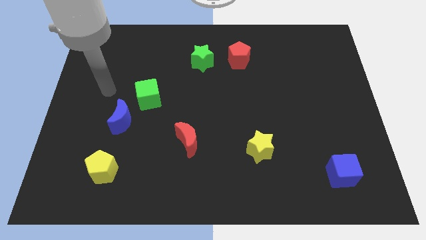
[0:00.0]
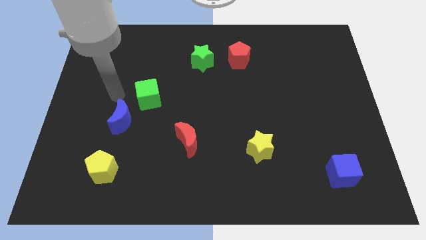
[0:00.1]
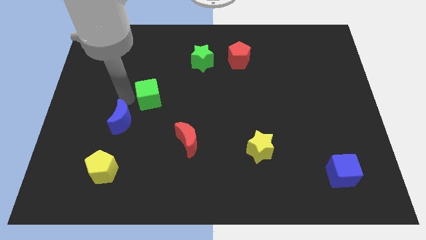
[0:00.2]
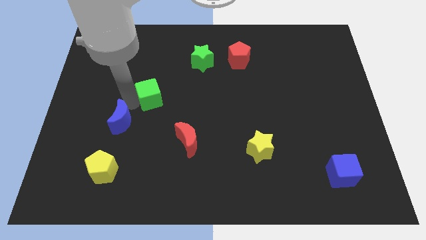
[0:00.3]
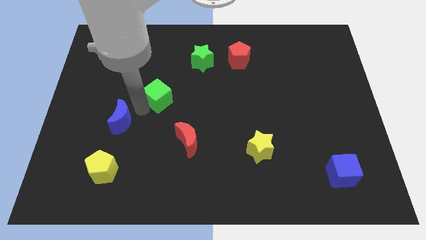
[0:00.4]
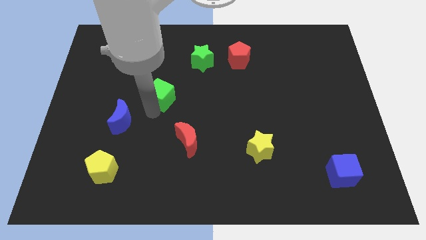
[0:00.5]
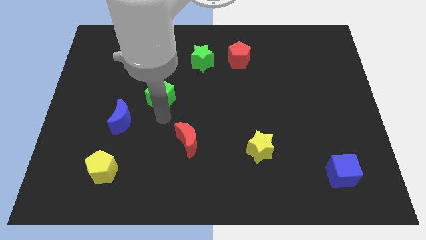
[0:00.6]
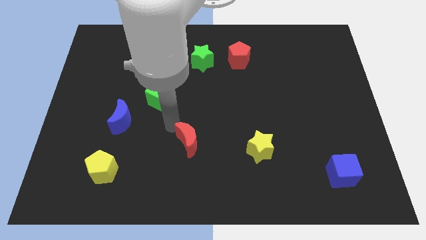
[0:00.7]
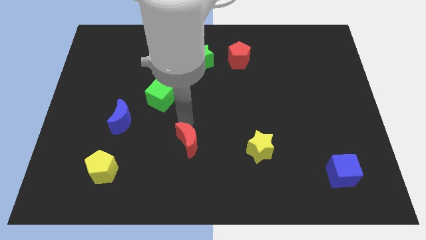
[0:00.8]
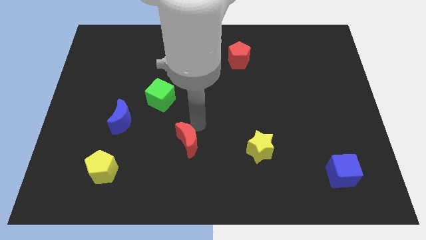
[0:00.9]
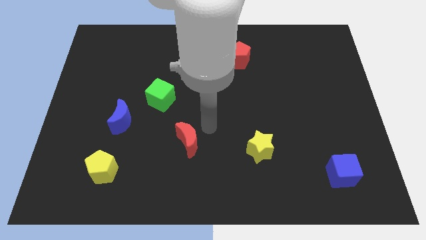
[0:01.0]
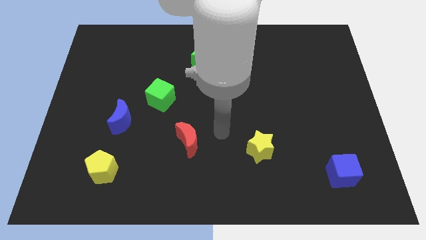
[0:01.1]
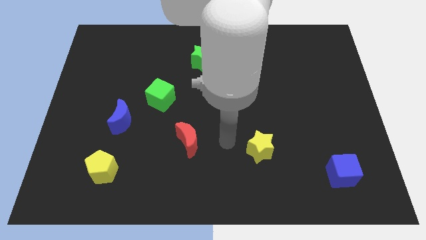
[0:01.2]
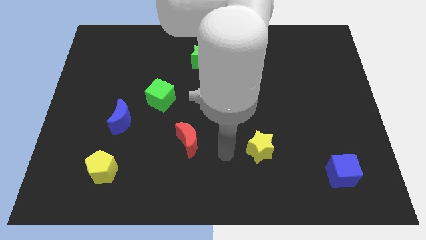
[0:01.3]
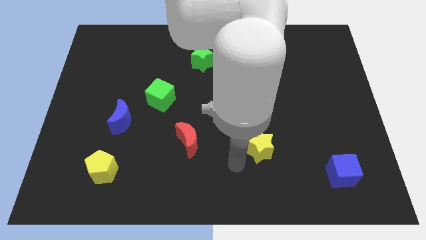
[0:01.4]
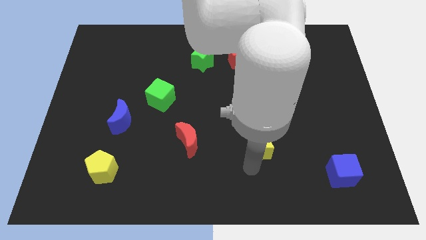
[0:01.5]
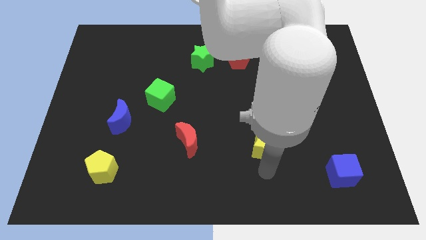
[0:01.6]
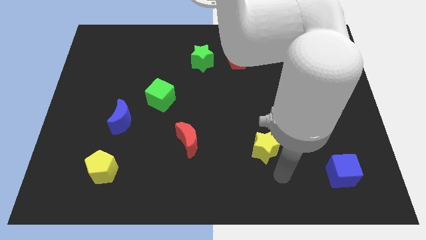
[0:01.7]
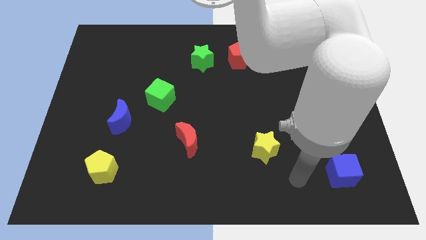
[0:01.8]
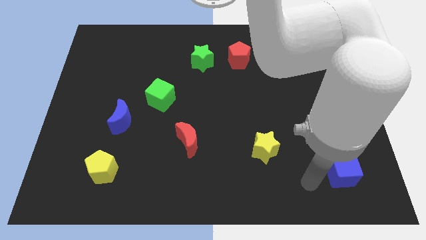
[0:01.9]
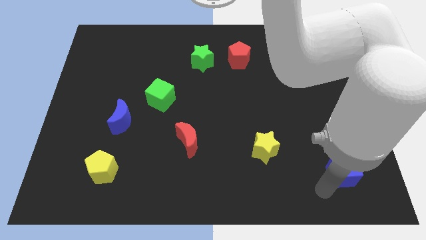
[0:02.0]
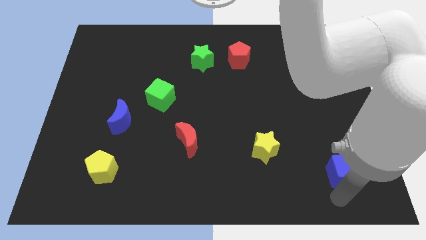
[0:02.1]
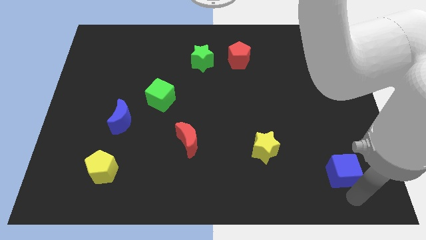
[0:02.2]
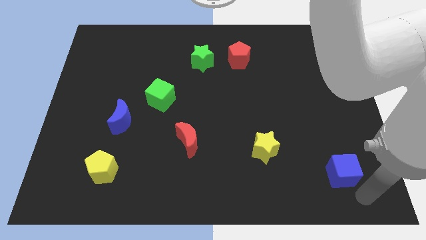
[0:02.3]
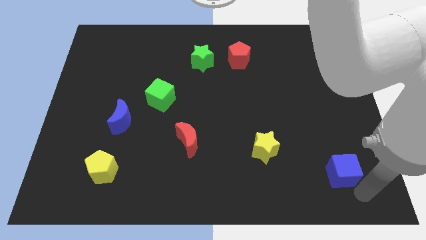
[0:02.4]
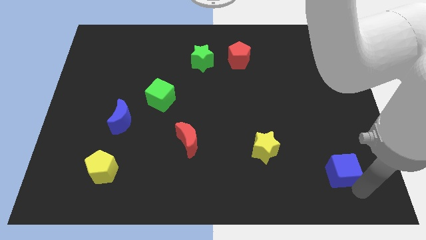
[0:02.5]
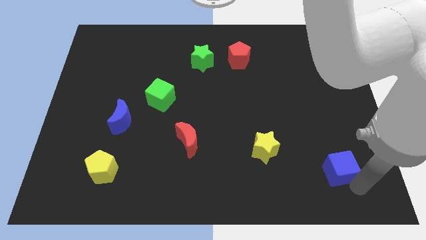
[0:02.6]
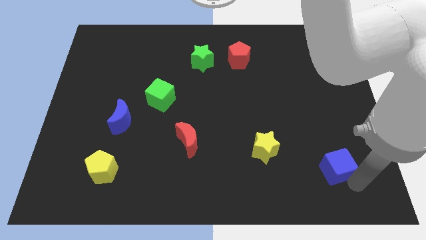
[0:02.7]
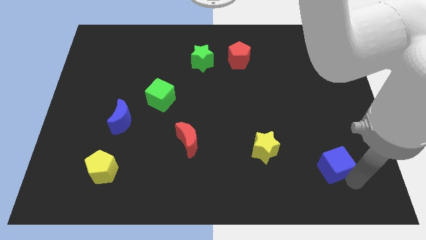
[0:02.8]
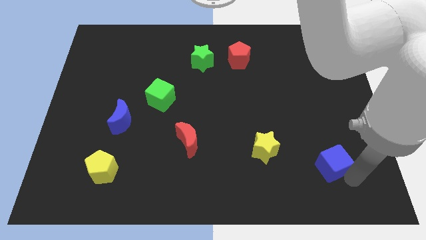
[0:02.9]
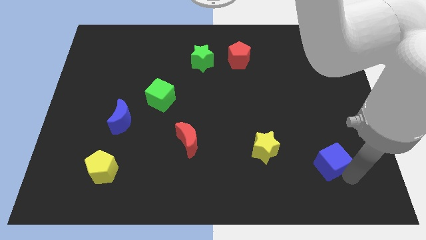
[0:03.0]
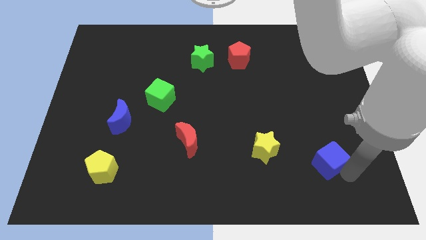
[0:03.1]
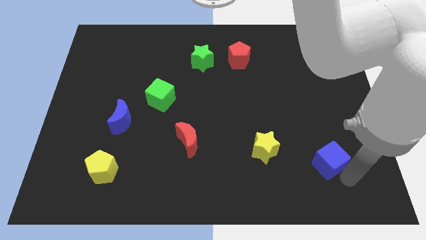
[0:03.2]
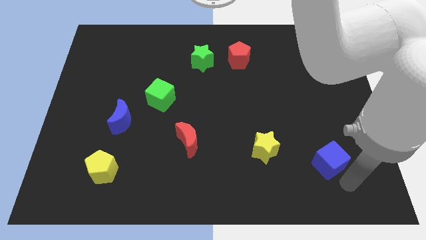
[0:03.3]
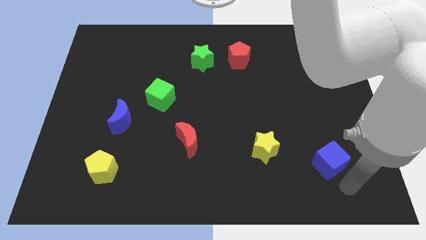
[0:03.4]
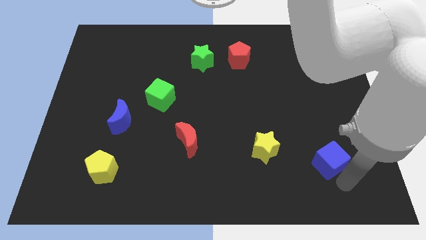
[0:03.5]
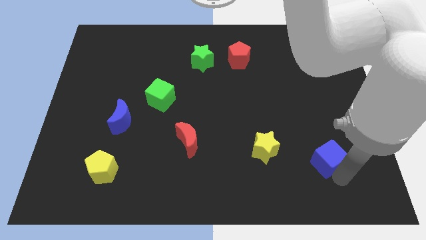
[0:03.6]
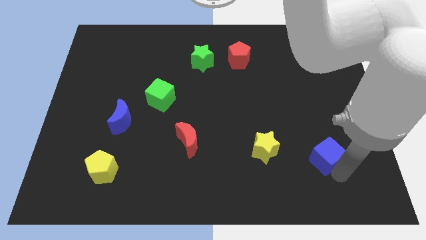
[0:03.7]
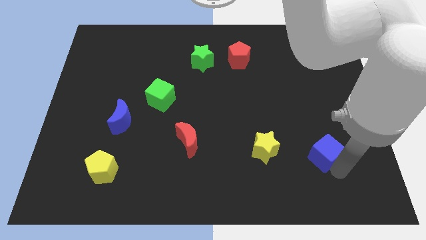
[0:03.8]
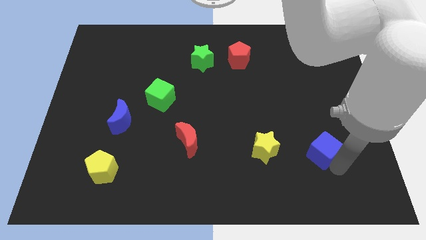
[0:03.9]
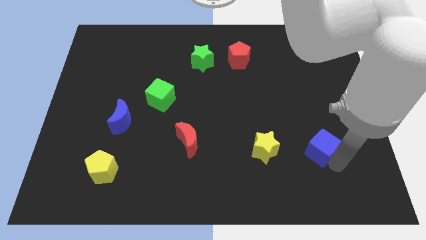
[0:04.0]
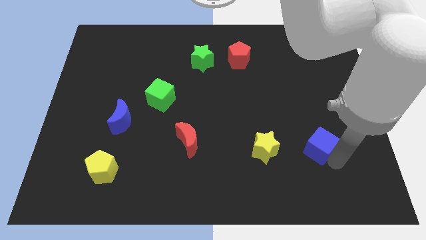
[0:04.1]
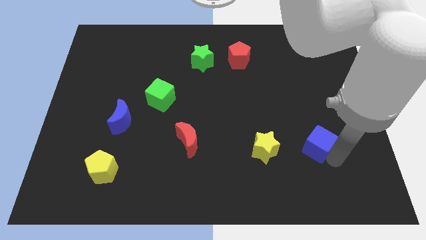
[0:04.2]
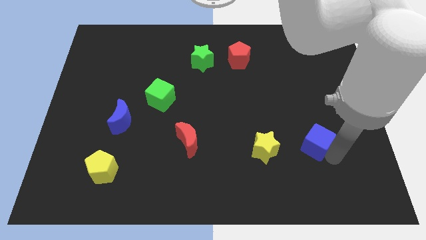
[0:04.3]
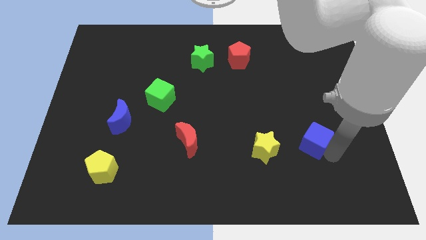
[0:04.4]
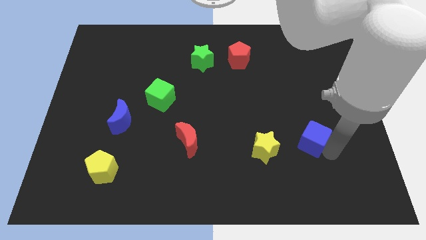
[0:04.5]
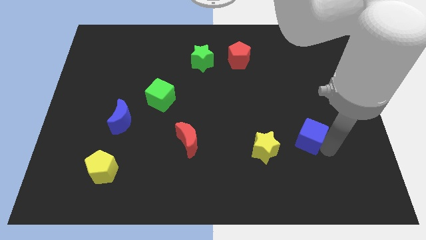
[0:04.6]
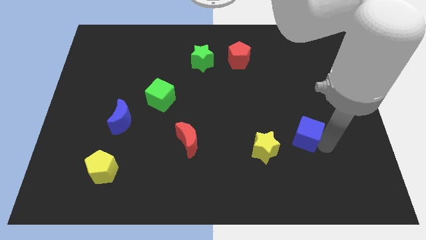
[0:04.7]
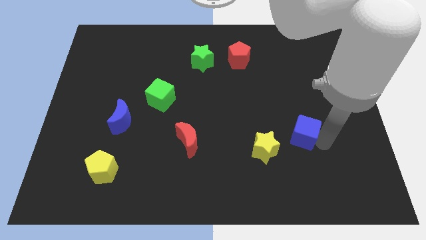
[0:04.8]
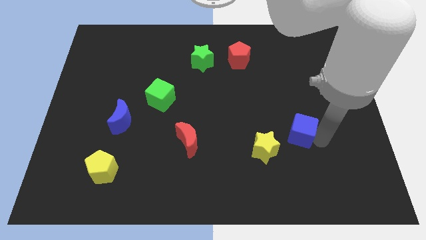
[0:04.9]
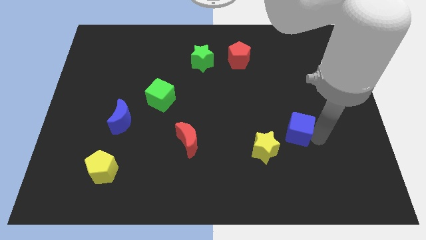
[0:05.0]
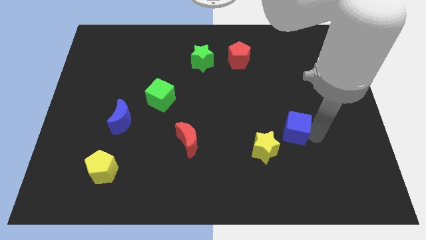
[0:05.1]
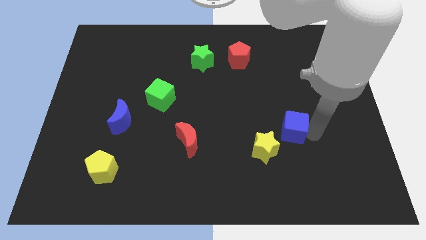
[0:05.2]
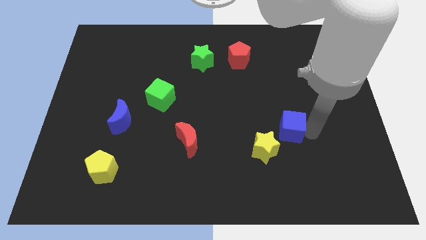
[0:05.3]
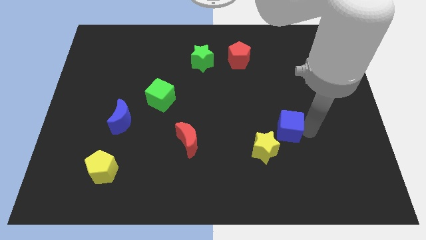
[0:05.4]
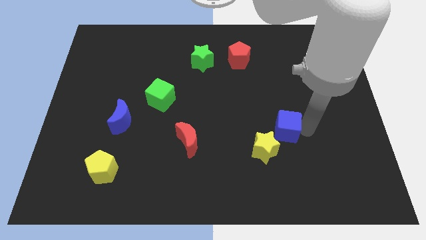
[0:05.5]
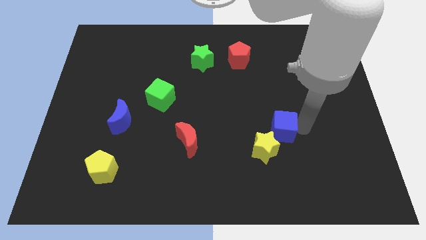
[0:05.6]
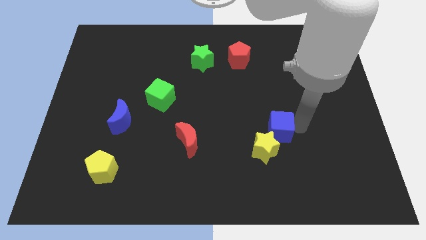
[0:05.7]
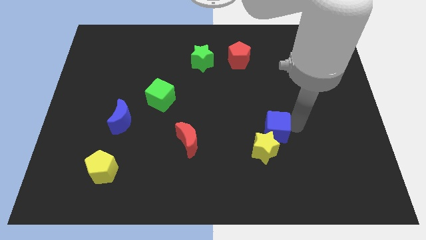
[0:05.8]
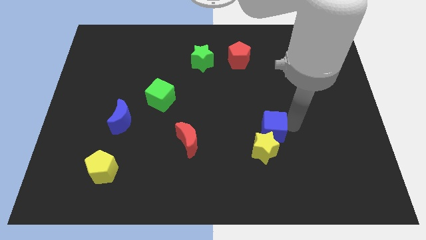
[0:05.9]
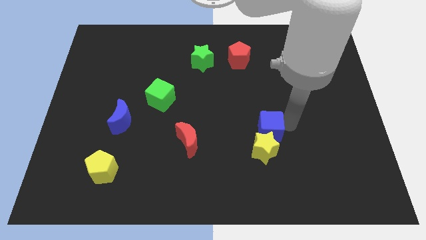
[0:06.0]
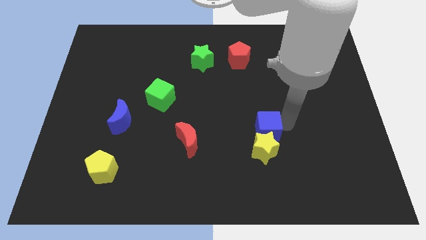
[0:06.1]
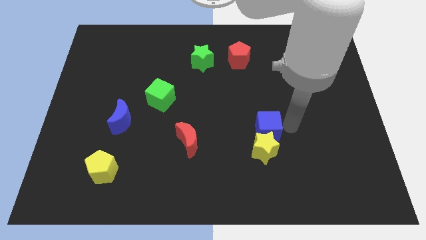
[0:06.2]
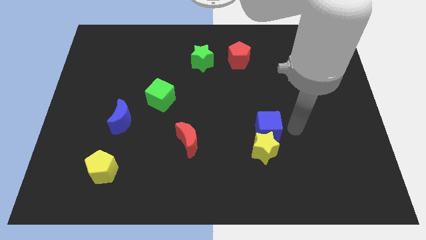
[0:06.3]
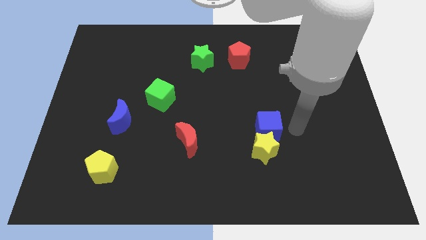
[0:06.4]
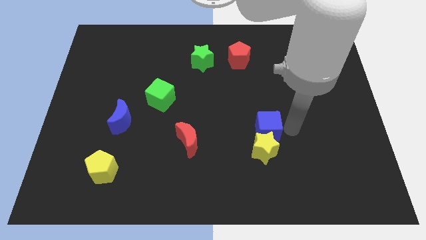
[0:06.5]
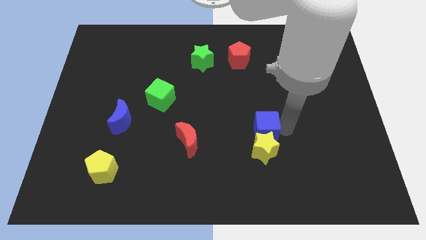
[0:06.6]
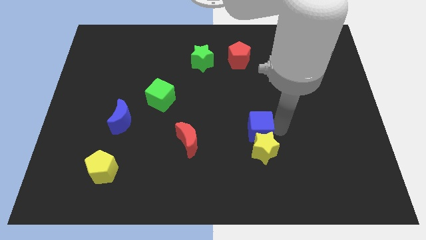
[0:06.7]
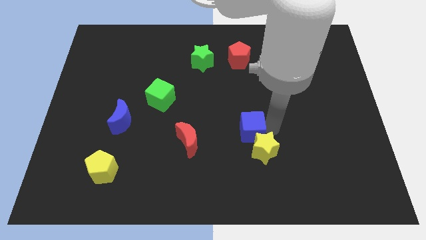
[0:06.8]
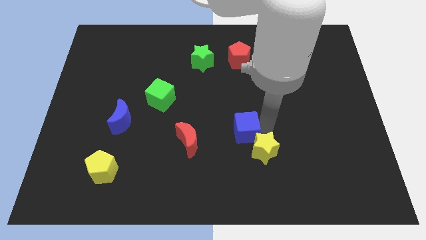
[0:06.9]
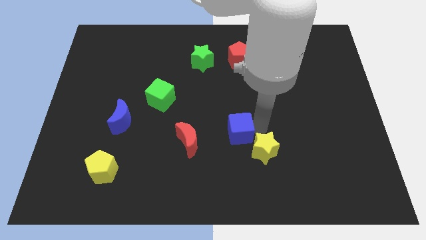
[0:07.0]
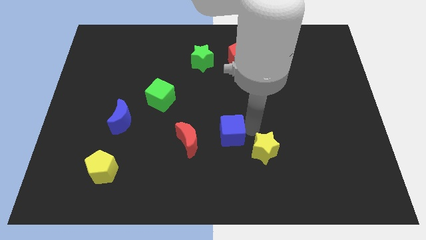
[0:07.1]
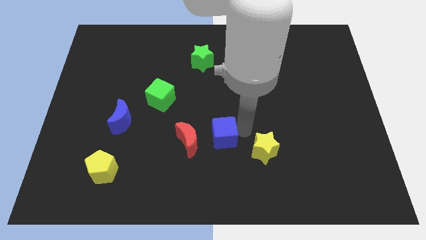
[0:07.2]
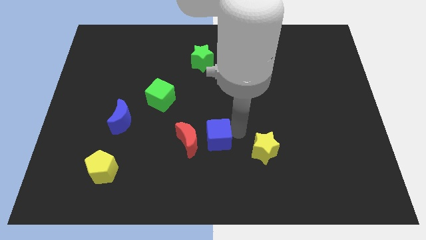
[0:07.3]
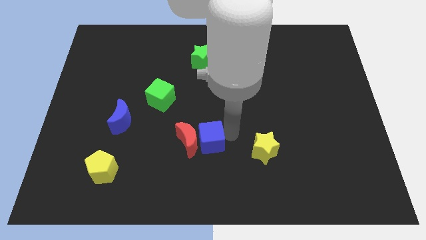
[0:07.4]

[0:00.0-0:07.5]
slide the blue cube towards the red moon
